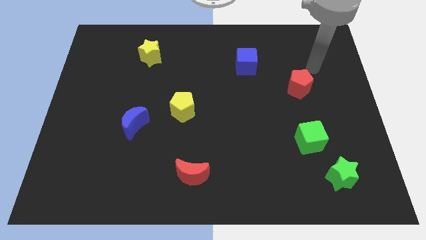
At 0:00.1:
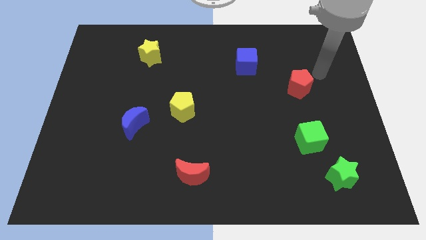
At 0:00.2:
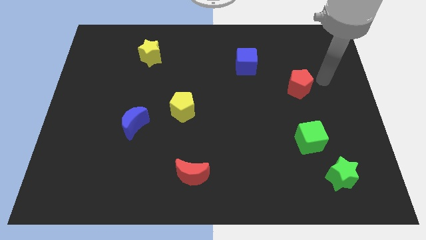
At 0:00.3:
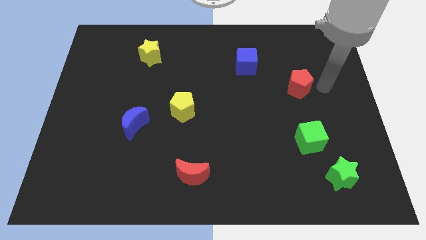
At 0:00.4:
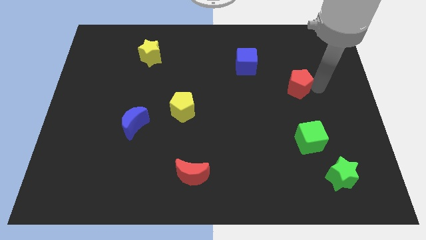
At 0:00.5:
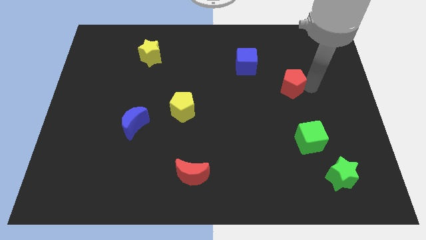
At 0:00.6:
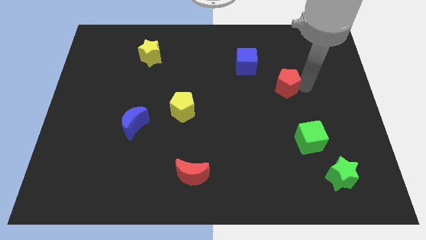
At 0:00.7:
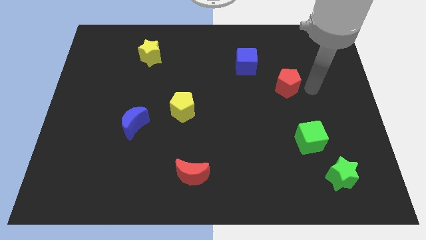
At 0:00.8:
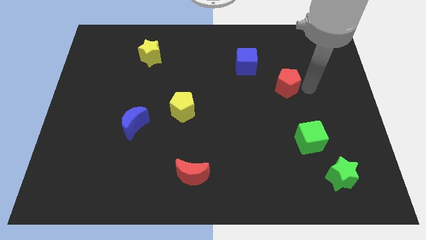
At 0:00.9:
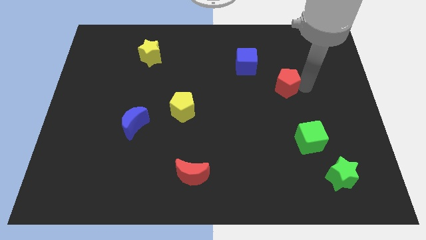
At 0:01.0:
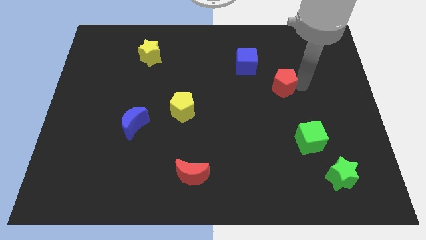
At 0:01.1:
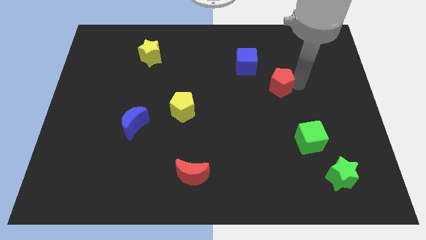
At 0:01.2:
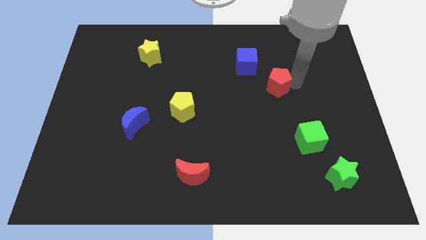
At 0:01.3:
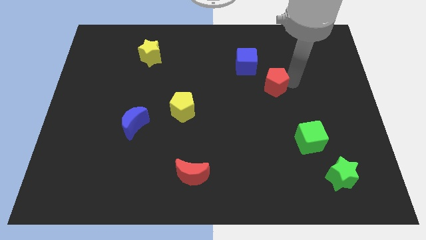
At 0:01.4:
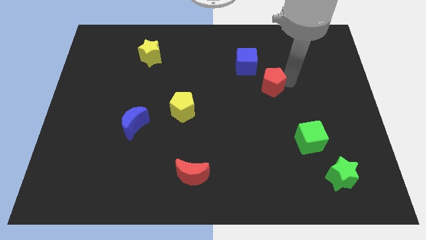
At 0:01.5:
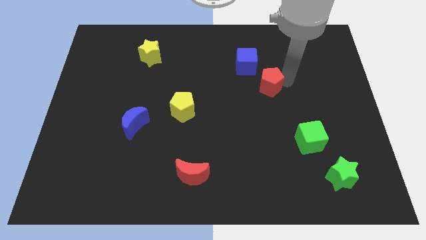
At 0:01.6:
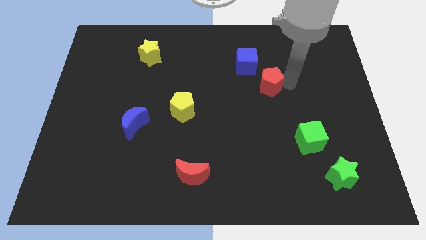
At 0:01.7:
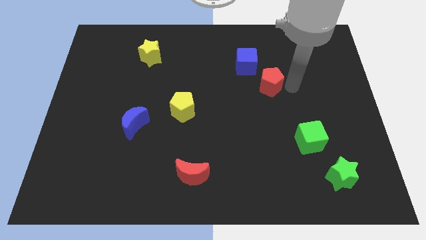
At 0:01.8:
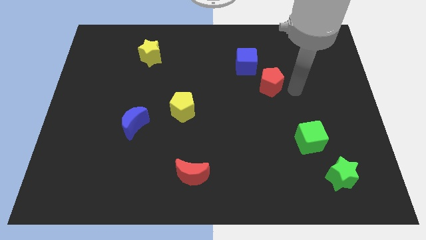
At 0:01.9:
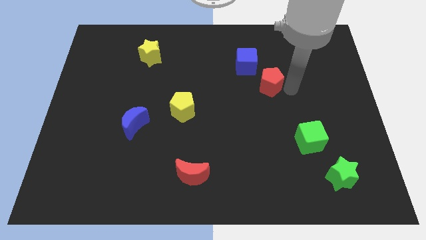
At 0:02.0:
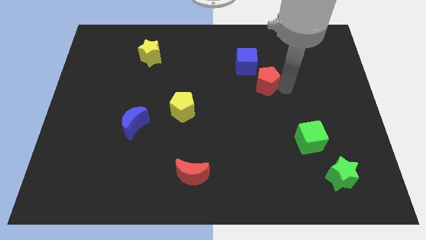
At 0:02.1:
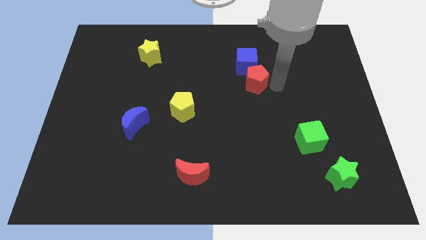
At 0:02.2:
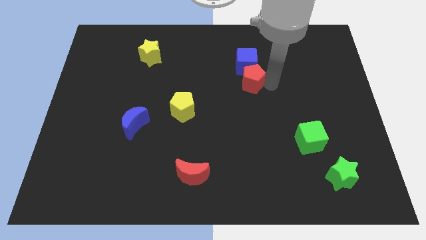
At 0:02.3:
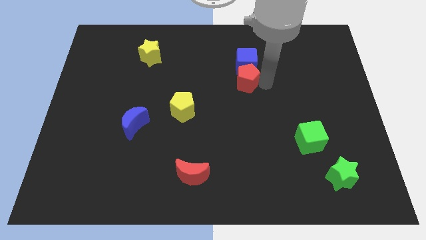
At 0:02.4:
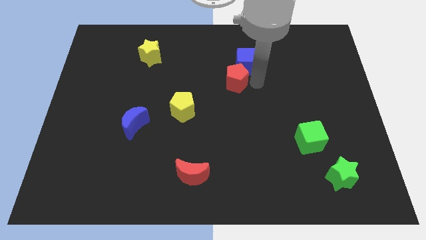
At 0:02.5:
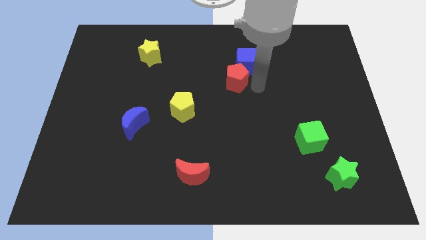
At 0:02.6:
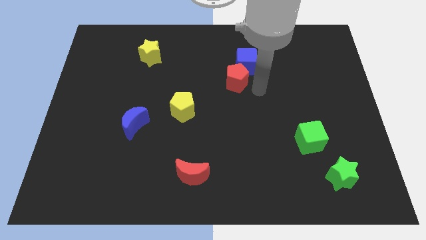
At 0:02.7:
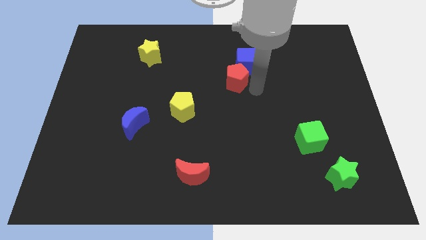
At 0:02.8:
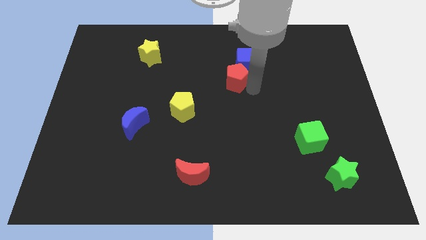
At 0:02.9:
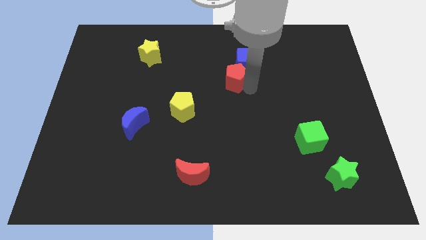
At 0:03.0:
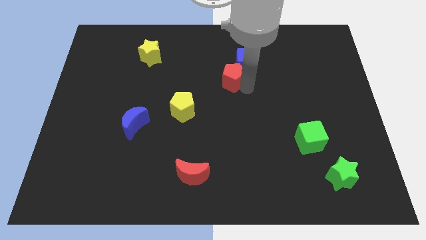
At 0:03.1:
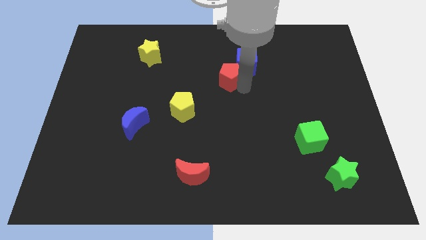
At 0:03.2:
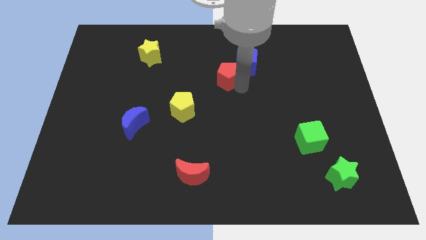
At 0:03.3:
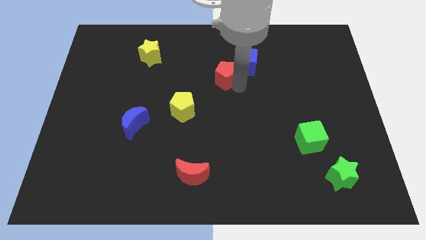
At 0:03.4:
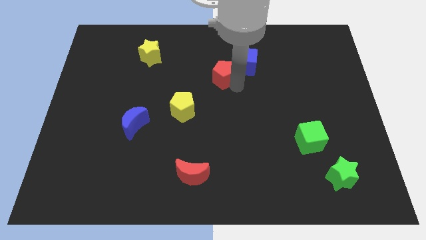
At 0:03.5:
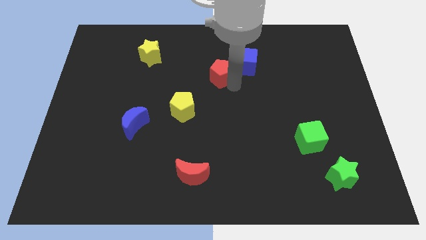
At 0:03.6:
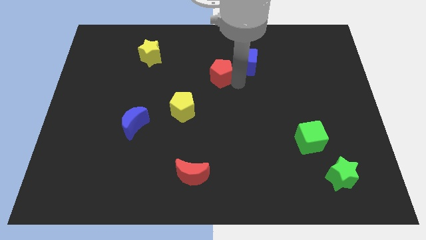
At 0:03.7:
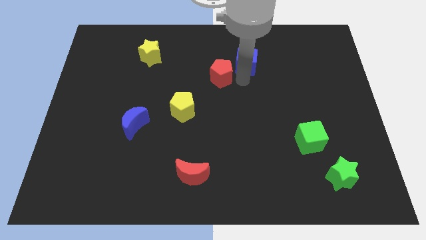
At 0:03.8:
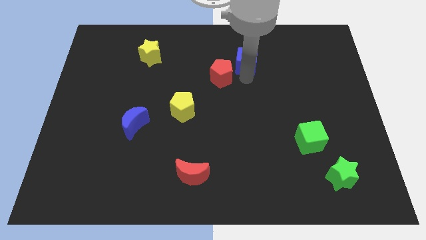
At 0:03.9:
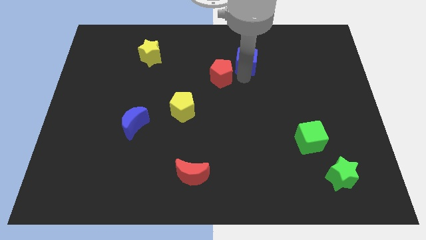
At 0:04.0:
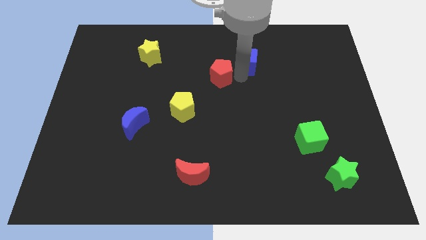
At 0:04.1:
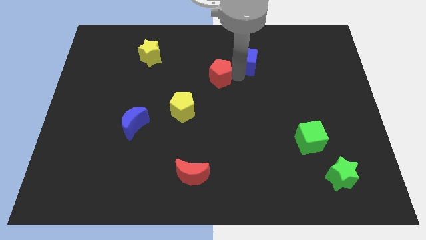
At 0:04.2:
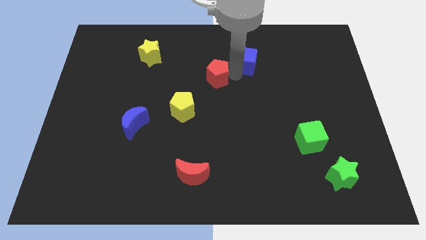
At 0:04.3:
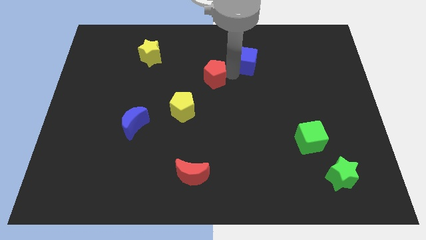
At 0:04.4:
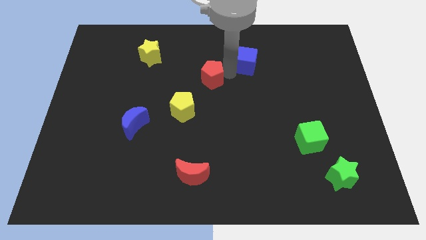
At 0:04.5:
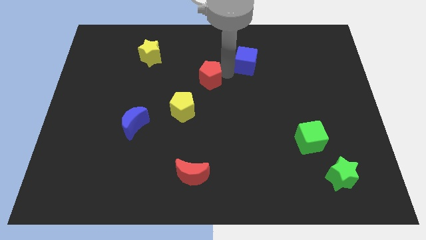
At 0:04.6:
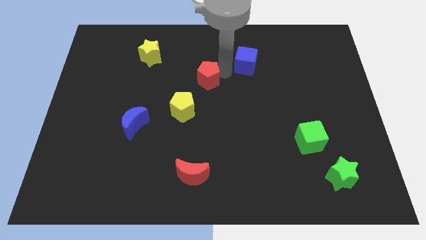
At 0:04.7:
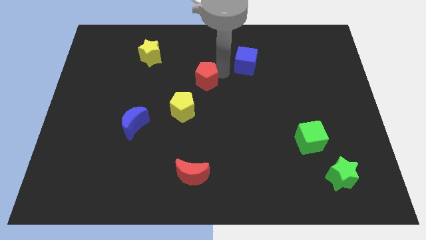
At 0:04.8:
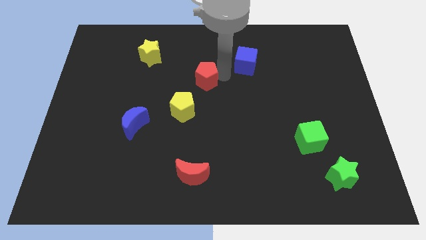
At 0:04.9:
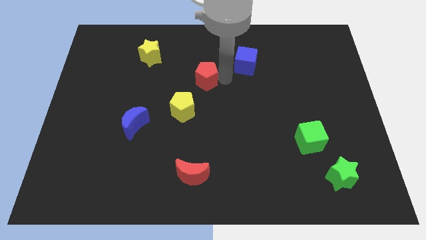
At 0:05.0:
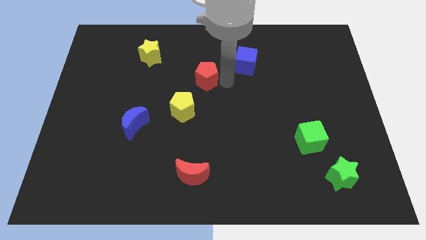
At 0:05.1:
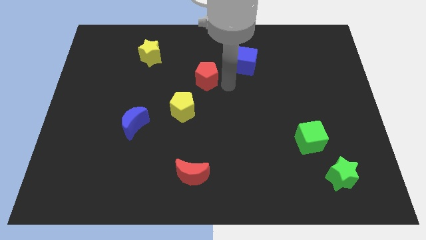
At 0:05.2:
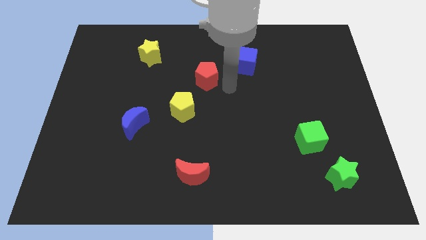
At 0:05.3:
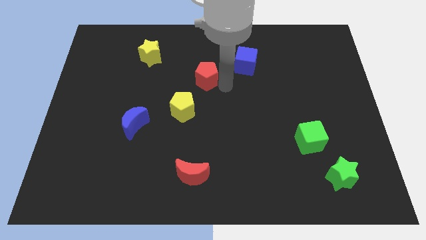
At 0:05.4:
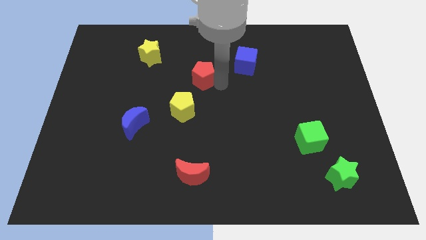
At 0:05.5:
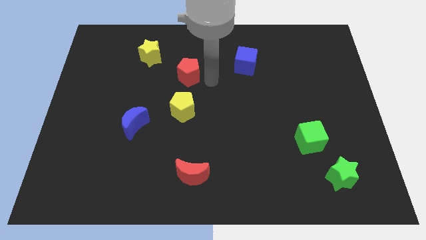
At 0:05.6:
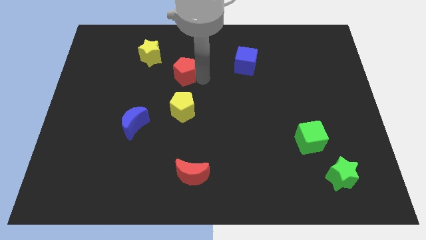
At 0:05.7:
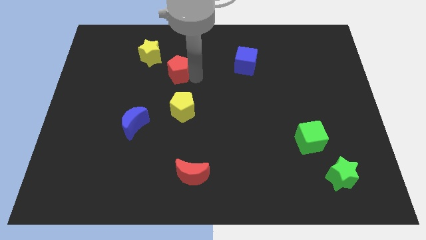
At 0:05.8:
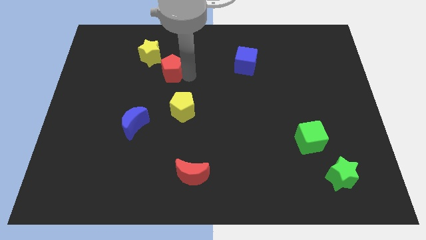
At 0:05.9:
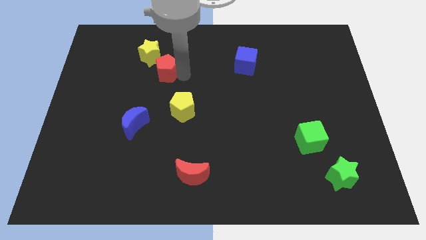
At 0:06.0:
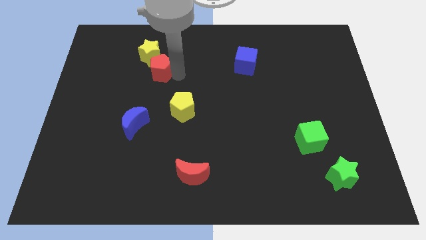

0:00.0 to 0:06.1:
put the red pentagon close to the yellow star
